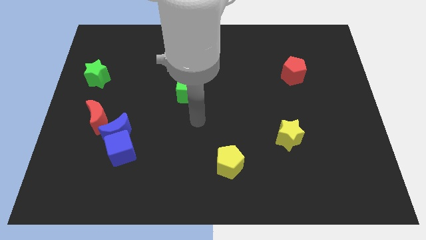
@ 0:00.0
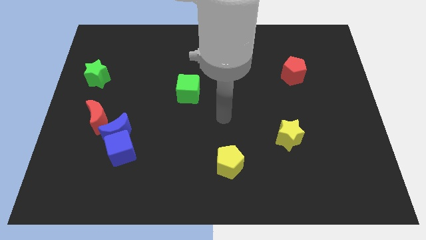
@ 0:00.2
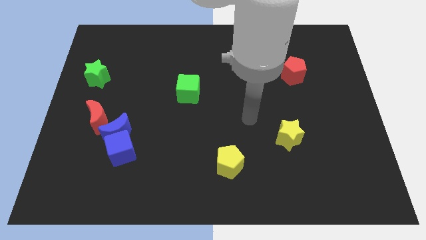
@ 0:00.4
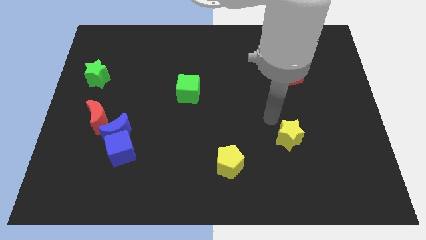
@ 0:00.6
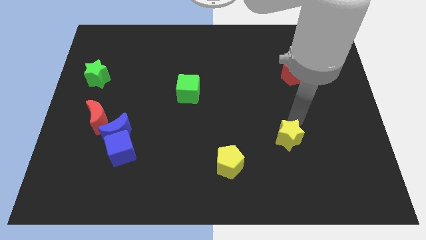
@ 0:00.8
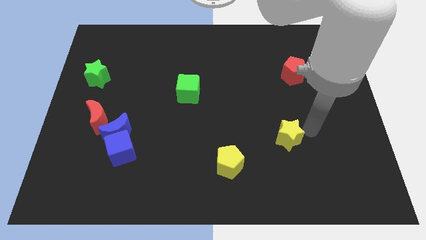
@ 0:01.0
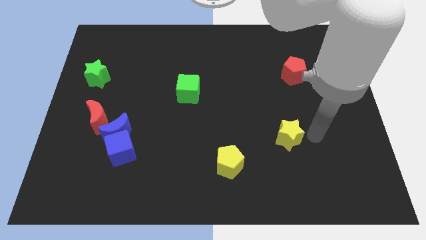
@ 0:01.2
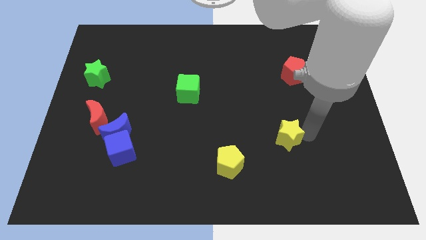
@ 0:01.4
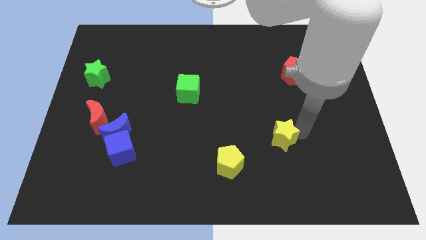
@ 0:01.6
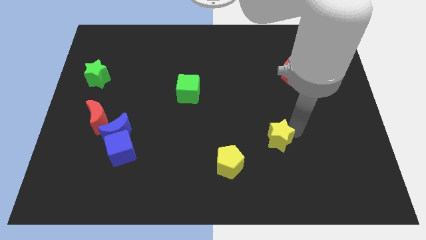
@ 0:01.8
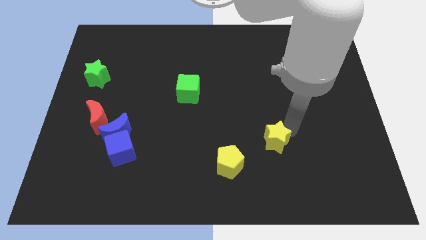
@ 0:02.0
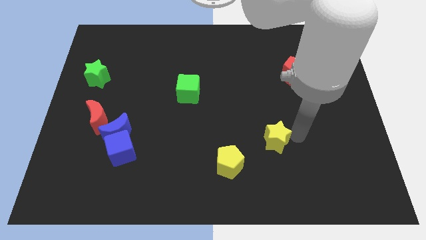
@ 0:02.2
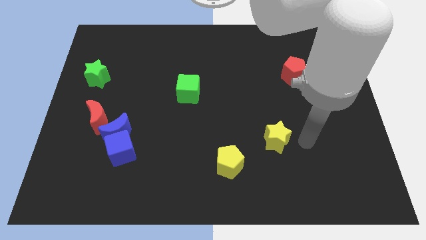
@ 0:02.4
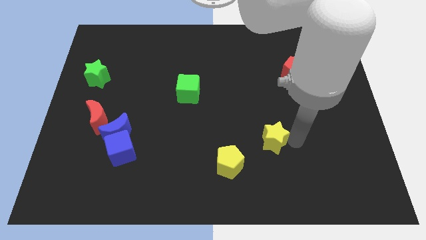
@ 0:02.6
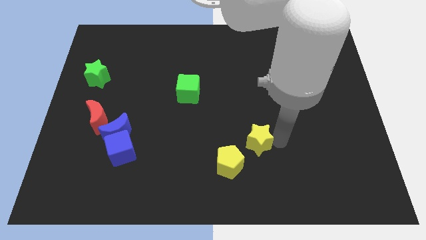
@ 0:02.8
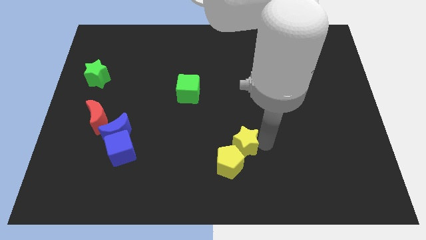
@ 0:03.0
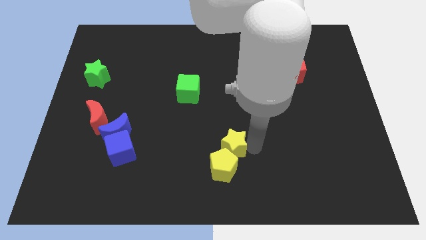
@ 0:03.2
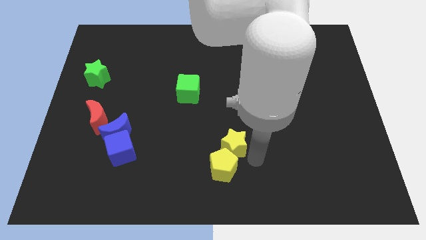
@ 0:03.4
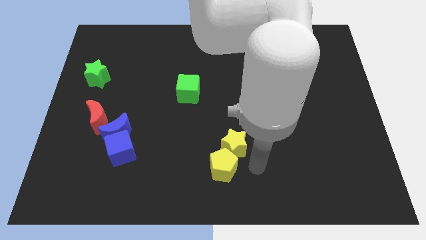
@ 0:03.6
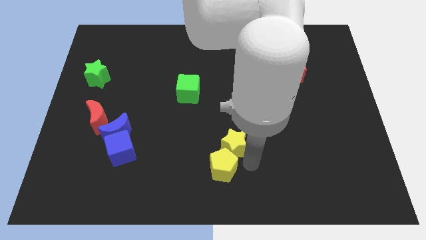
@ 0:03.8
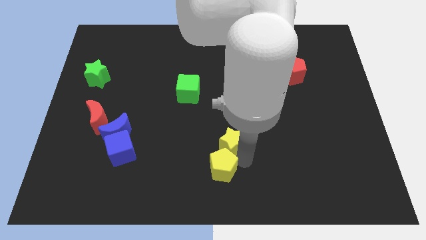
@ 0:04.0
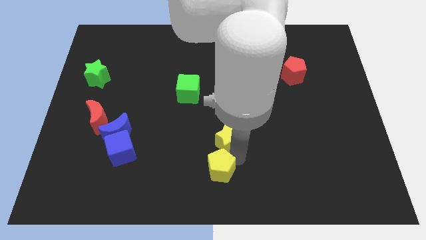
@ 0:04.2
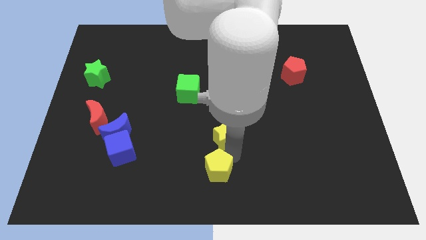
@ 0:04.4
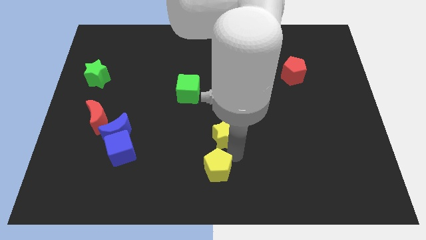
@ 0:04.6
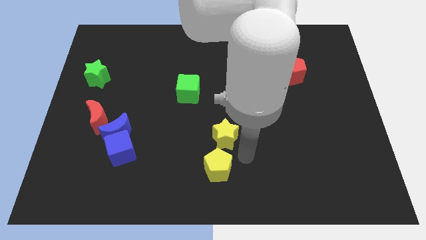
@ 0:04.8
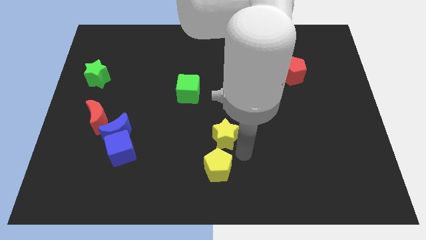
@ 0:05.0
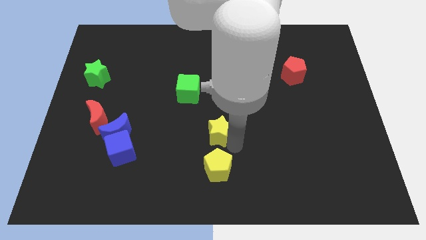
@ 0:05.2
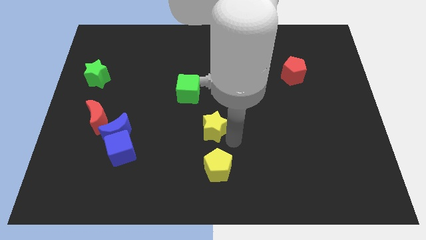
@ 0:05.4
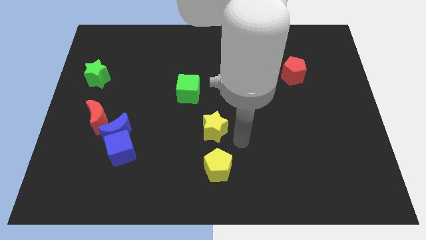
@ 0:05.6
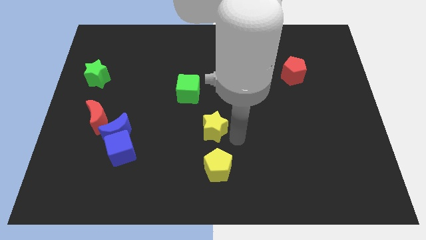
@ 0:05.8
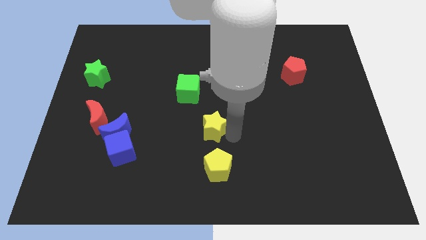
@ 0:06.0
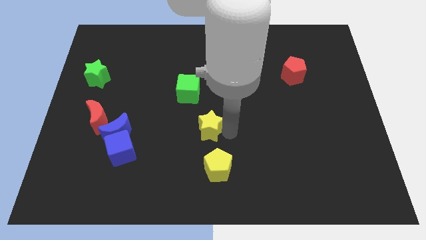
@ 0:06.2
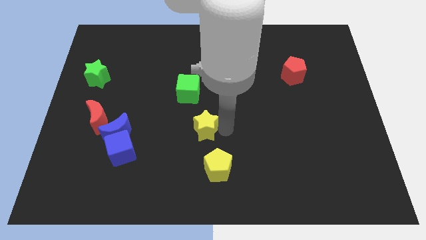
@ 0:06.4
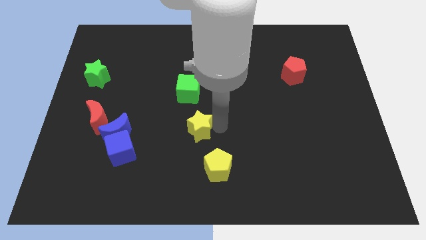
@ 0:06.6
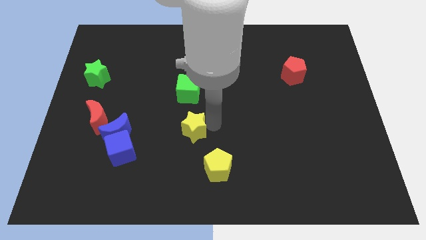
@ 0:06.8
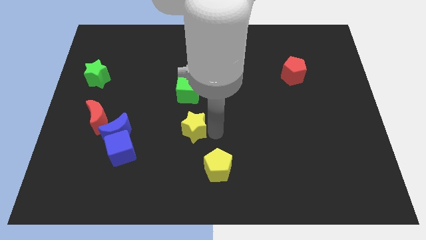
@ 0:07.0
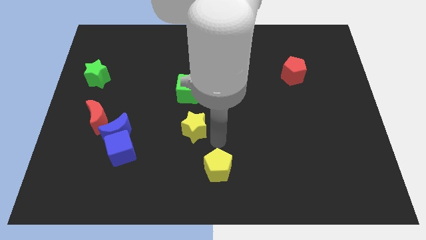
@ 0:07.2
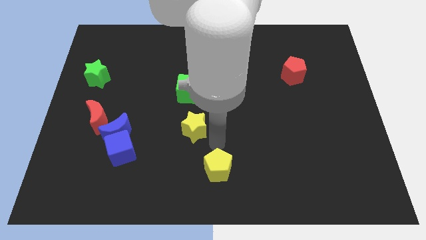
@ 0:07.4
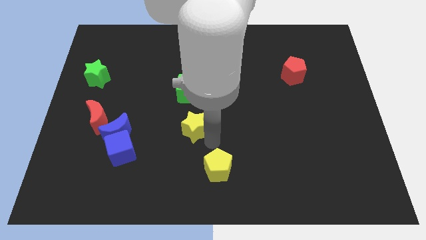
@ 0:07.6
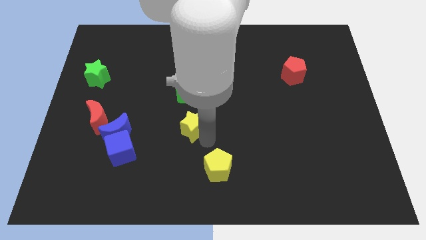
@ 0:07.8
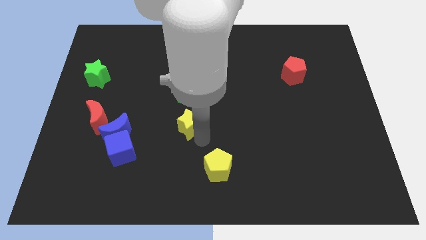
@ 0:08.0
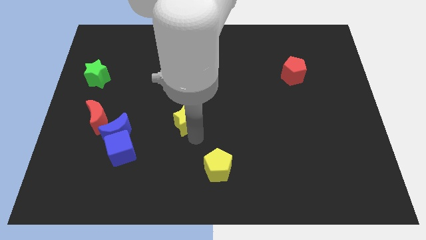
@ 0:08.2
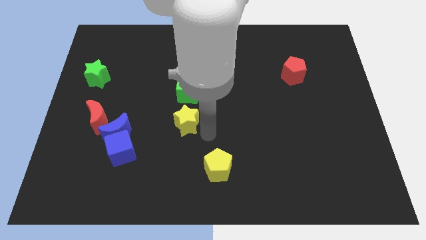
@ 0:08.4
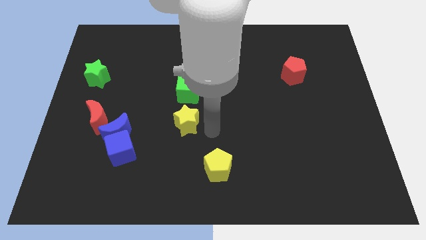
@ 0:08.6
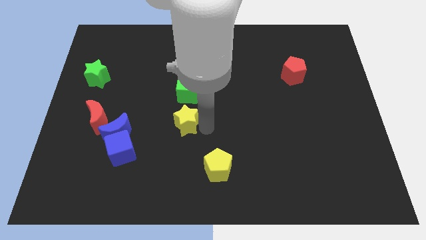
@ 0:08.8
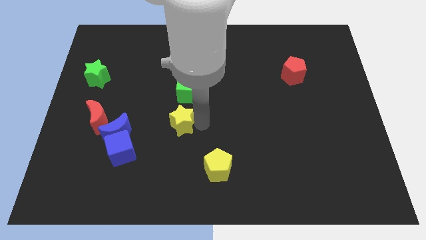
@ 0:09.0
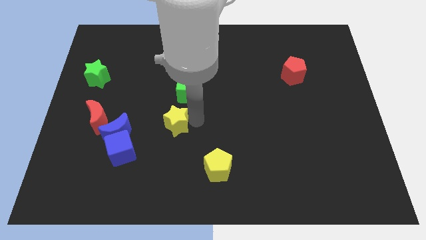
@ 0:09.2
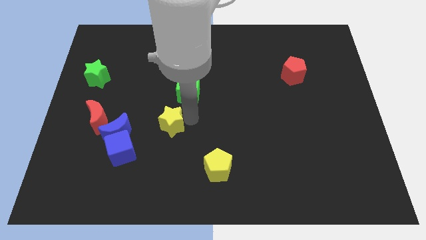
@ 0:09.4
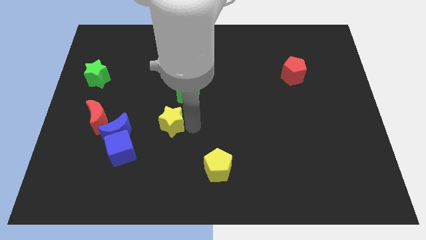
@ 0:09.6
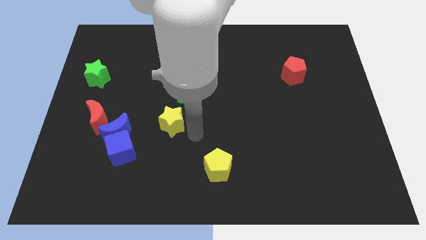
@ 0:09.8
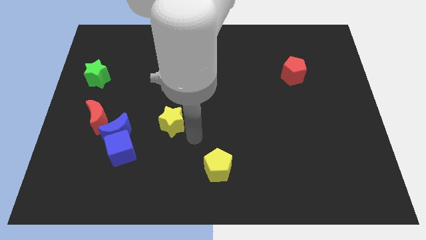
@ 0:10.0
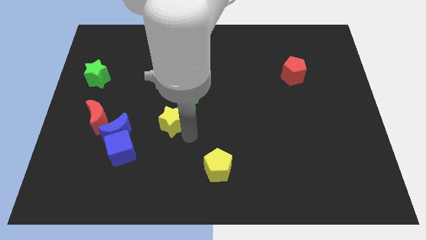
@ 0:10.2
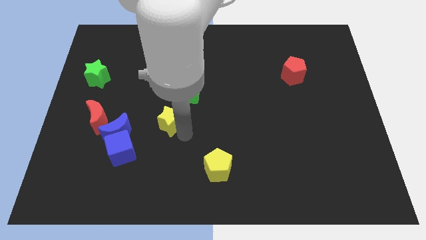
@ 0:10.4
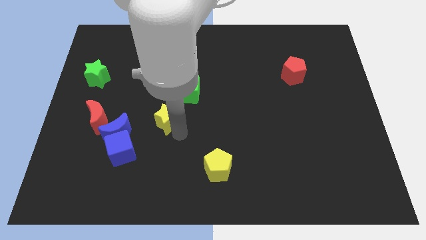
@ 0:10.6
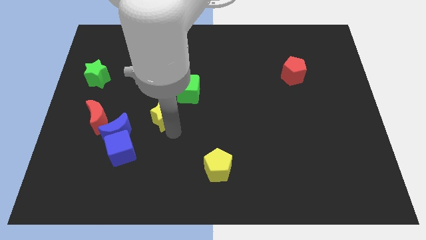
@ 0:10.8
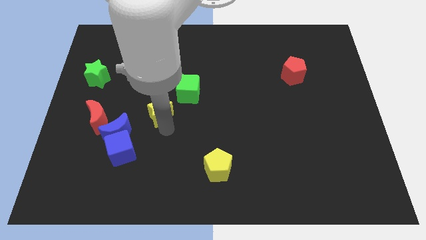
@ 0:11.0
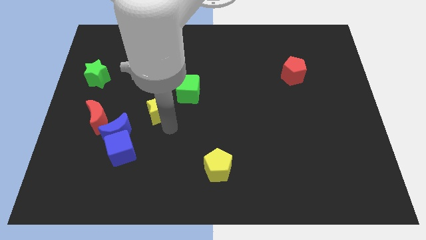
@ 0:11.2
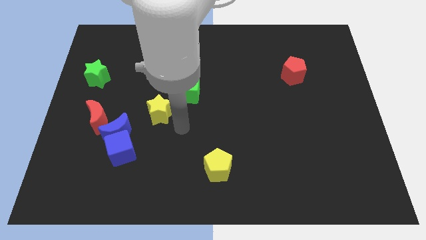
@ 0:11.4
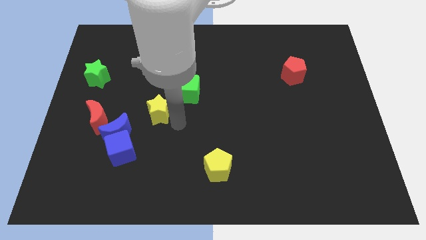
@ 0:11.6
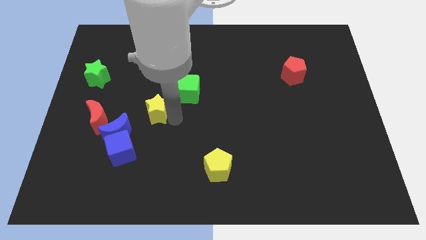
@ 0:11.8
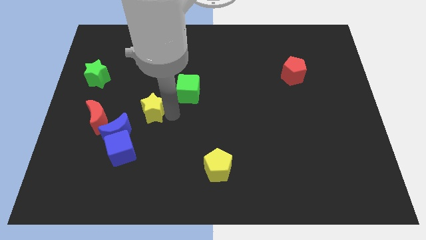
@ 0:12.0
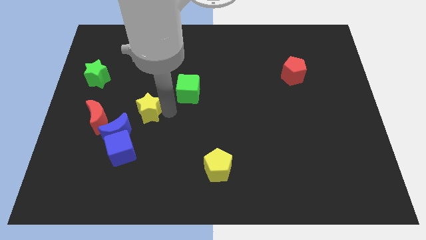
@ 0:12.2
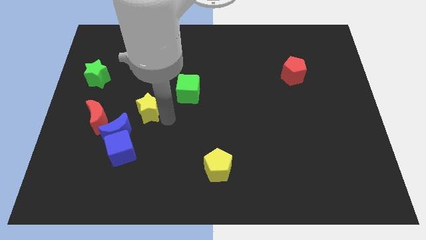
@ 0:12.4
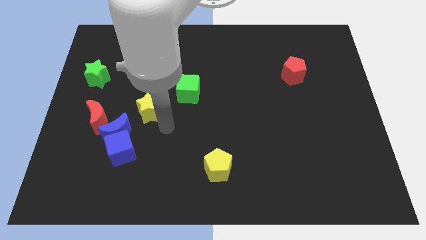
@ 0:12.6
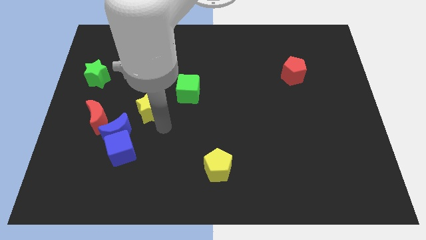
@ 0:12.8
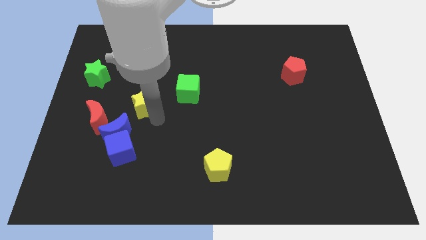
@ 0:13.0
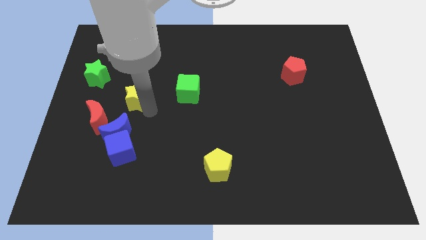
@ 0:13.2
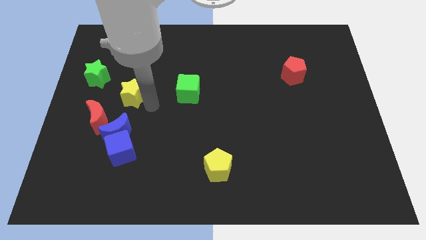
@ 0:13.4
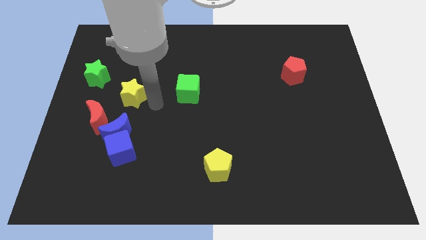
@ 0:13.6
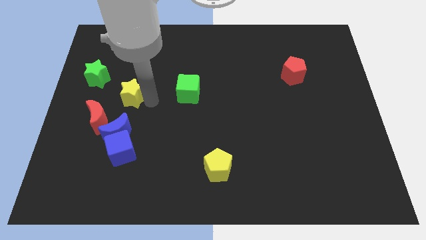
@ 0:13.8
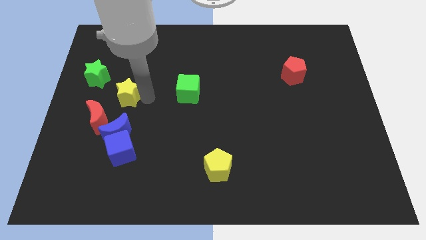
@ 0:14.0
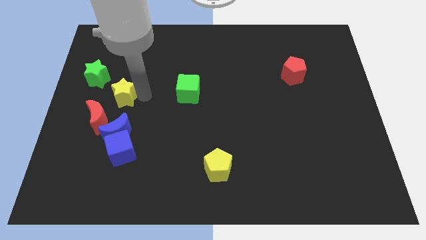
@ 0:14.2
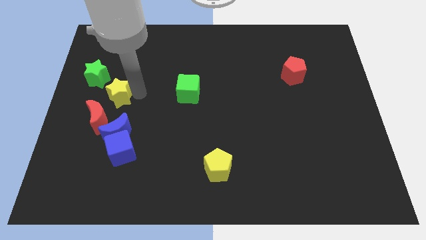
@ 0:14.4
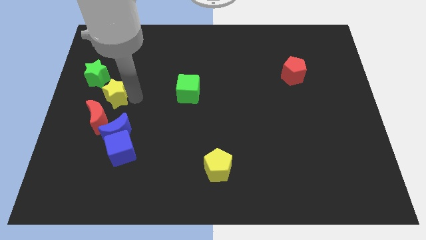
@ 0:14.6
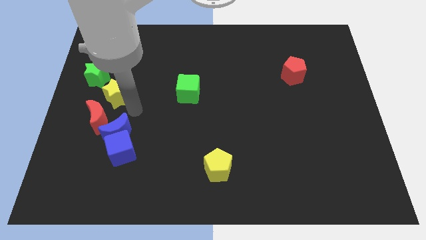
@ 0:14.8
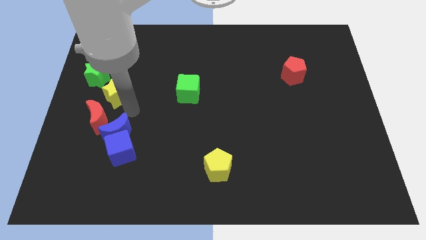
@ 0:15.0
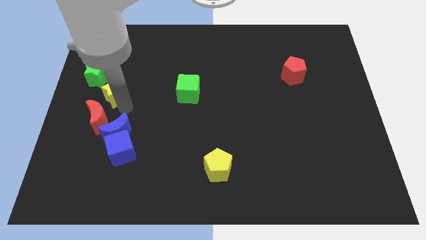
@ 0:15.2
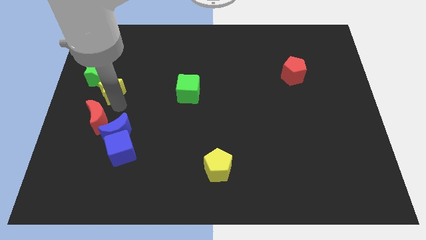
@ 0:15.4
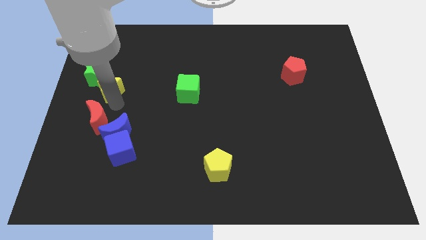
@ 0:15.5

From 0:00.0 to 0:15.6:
slide the yellow star close to the green star

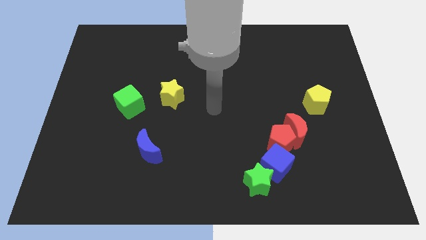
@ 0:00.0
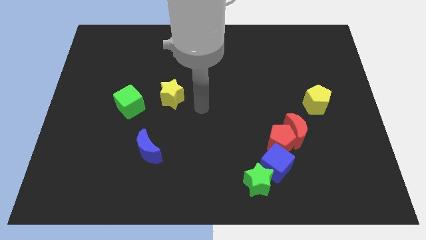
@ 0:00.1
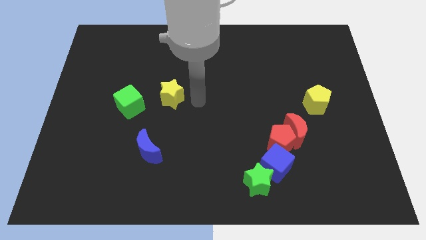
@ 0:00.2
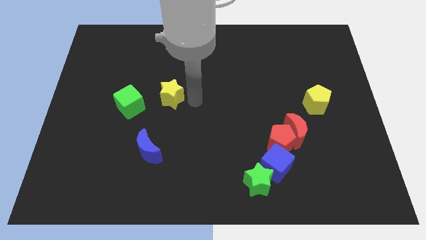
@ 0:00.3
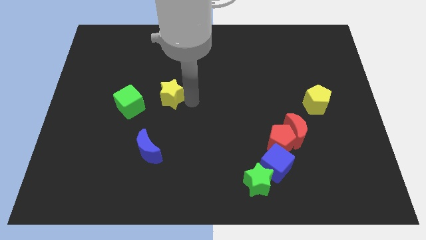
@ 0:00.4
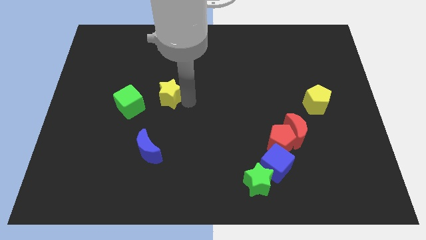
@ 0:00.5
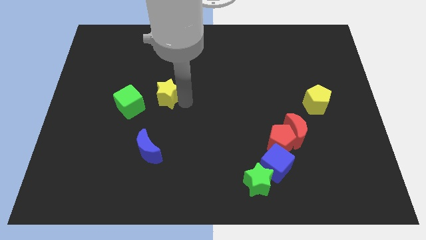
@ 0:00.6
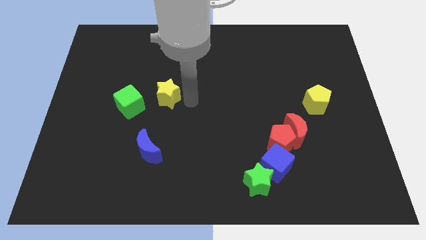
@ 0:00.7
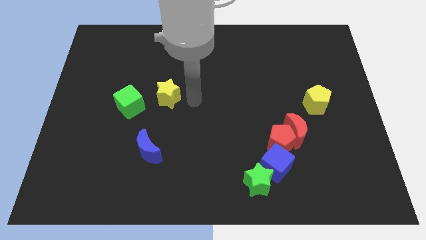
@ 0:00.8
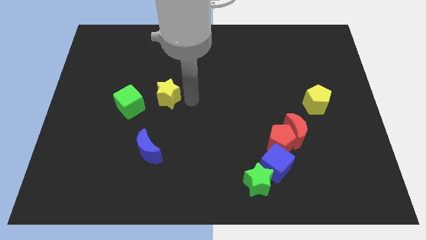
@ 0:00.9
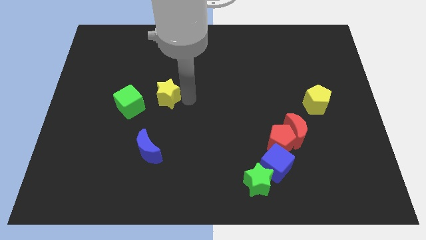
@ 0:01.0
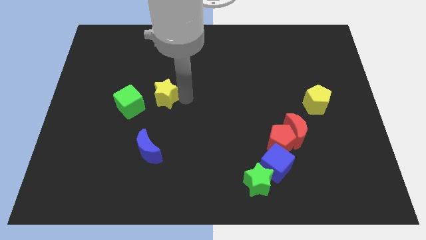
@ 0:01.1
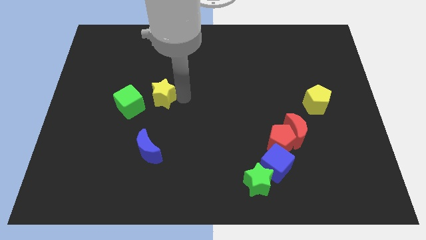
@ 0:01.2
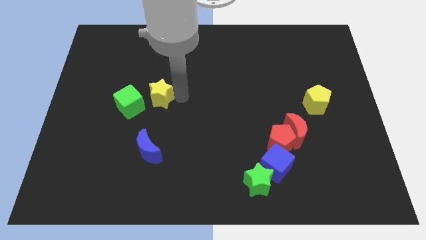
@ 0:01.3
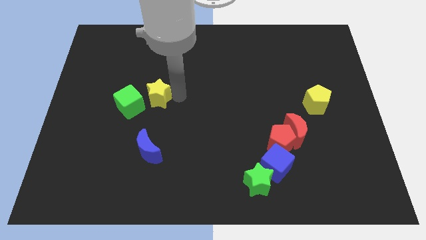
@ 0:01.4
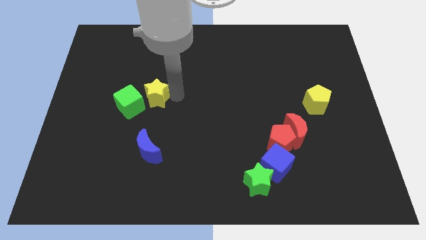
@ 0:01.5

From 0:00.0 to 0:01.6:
move the yellow star to the green cube
